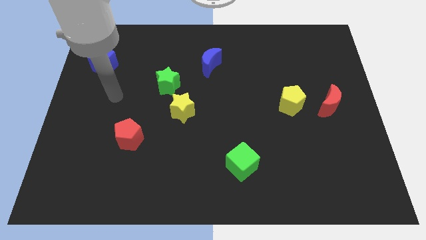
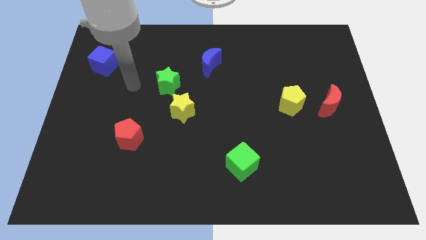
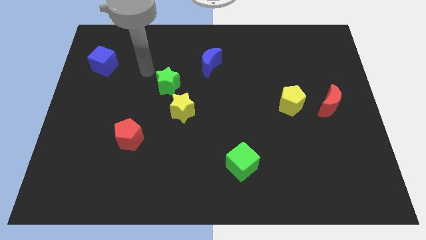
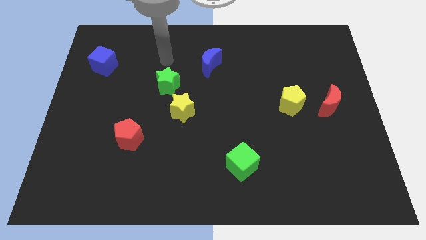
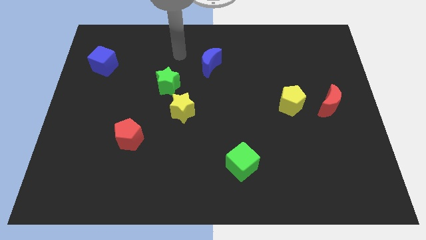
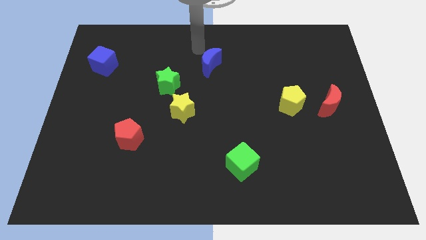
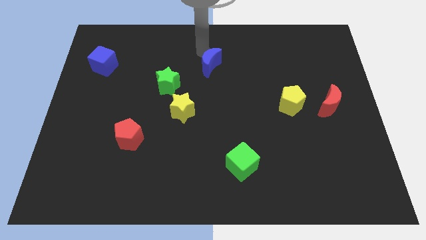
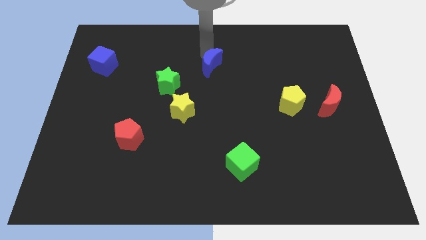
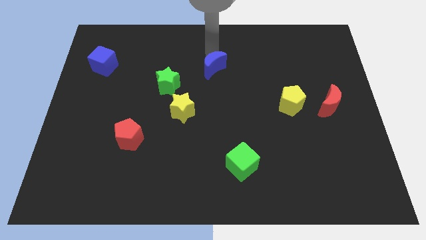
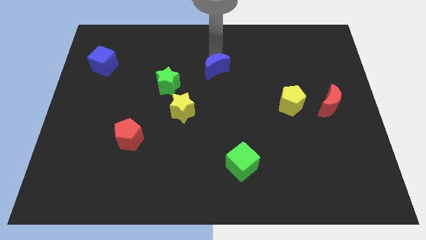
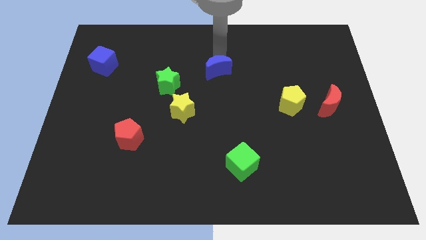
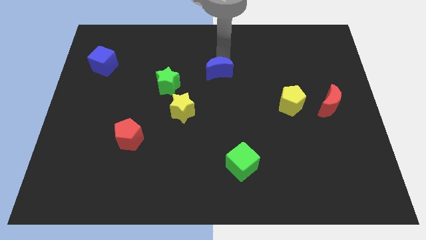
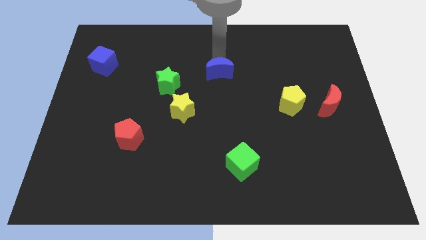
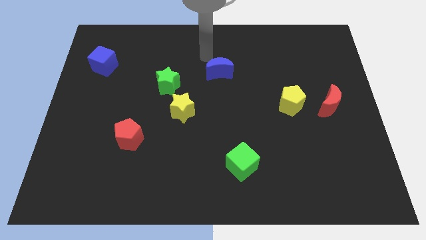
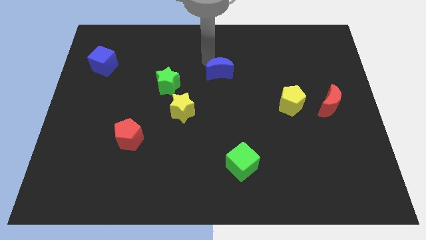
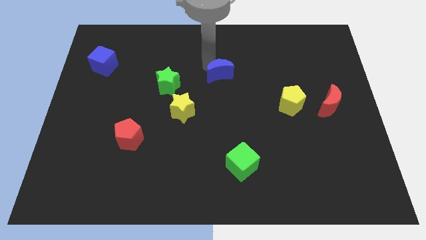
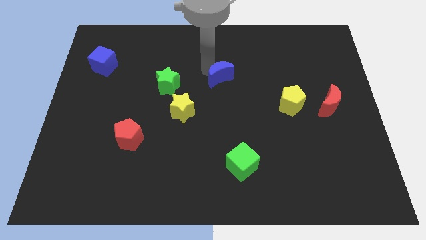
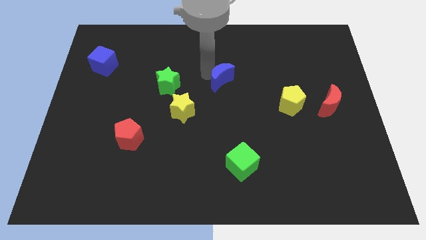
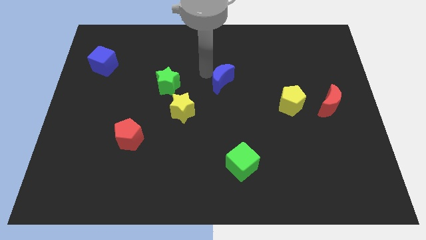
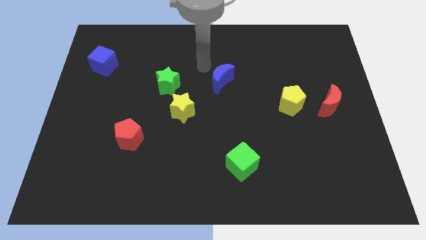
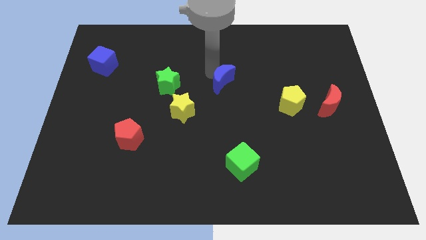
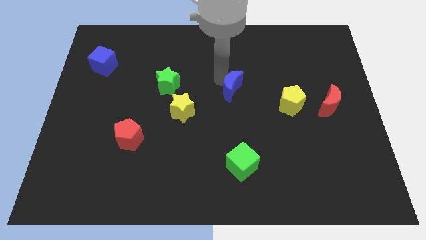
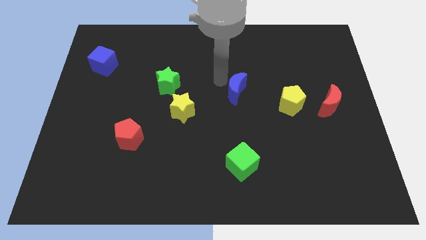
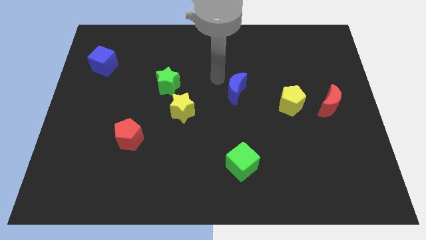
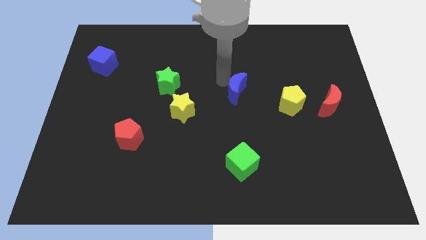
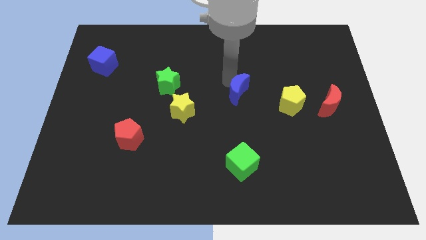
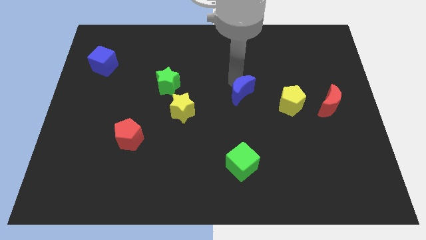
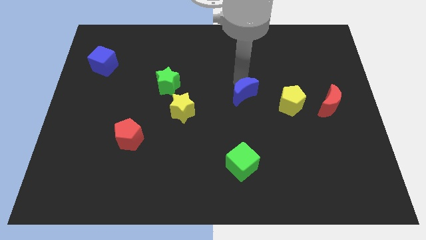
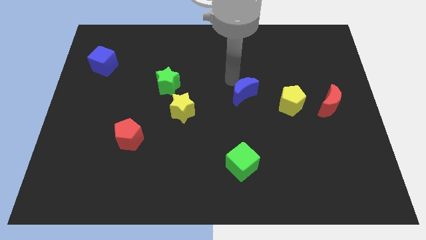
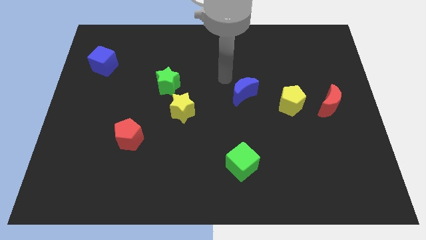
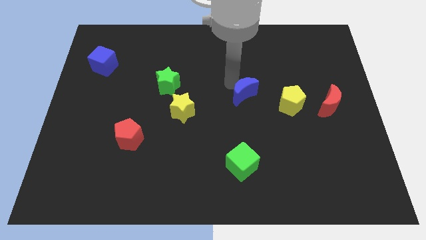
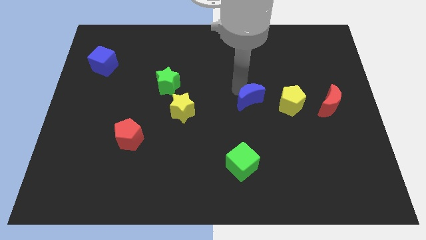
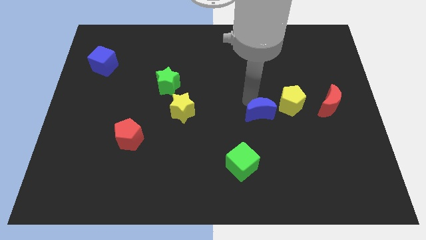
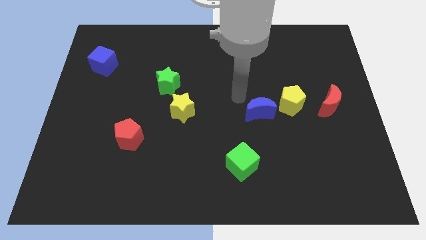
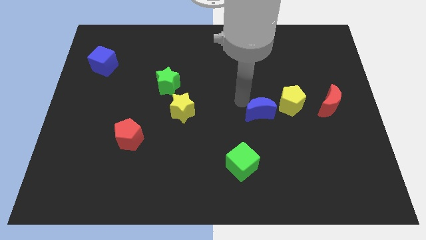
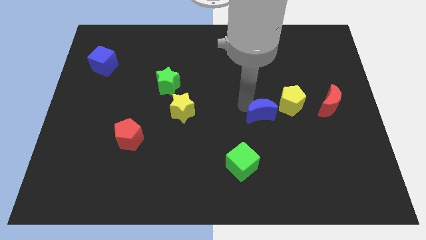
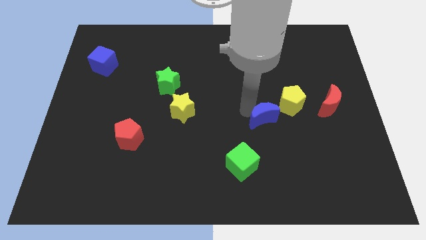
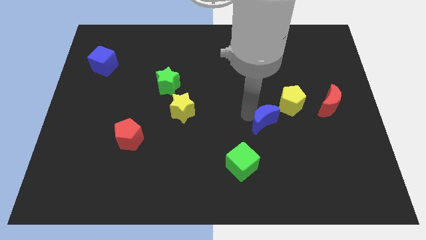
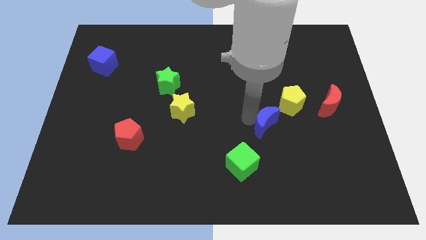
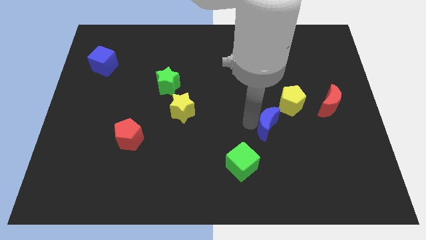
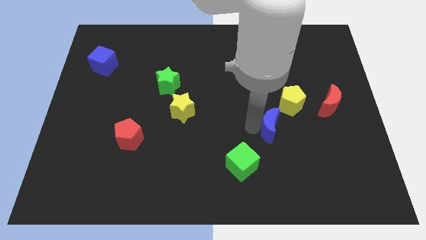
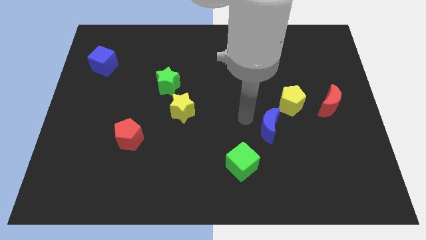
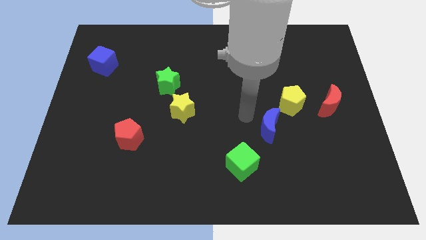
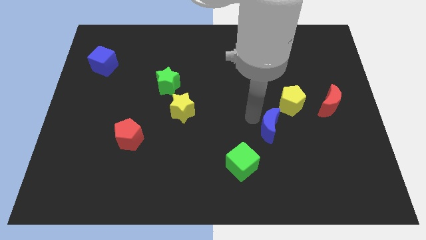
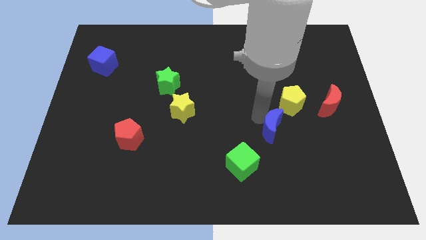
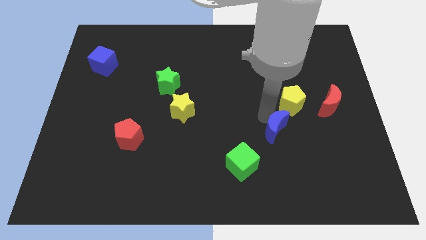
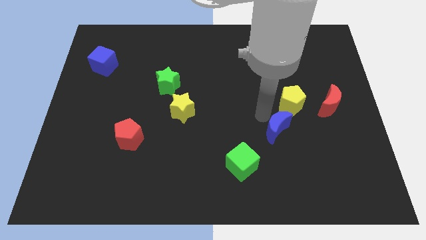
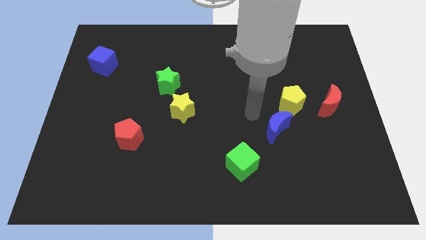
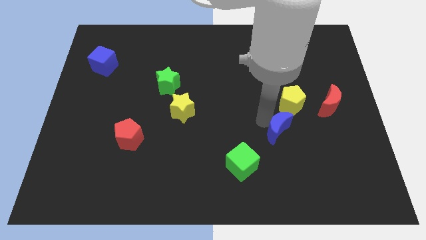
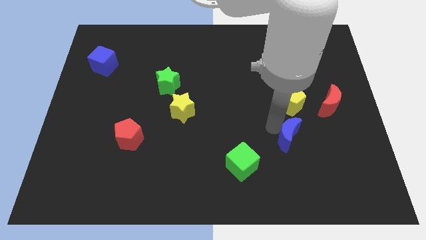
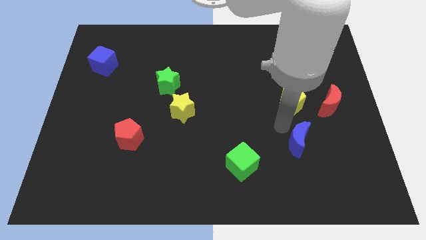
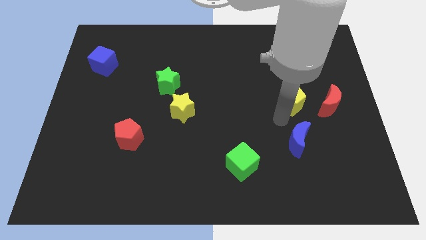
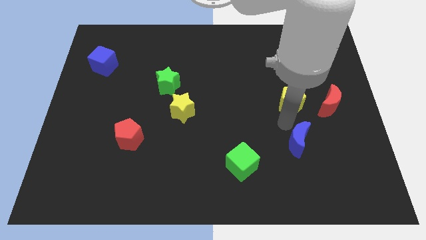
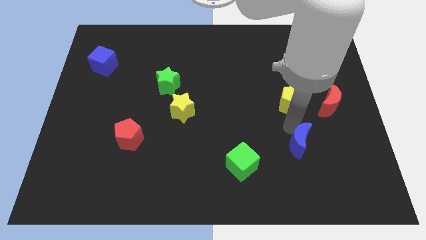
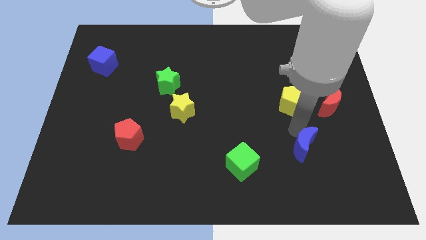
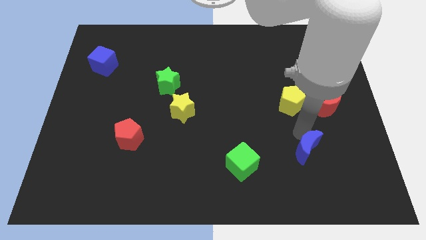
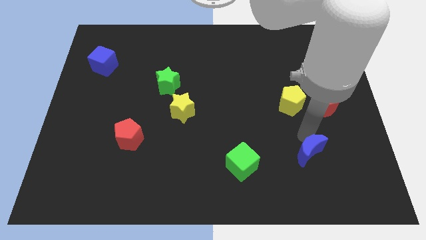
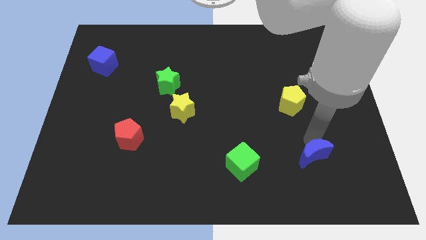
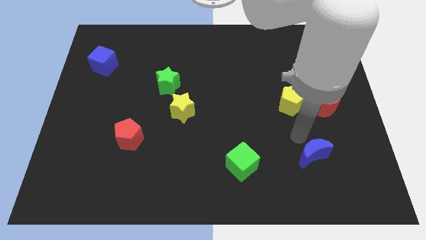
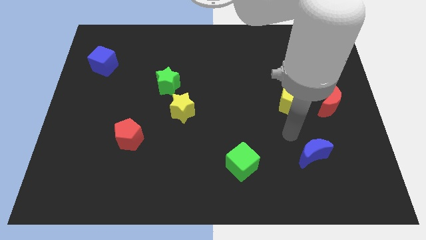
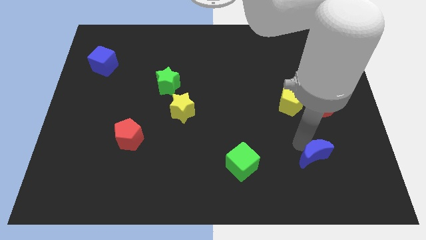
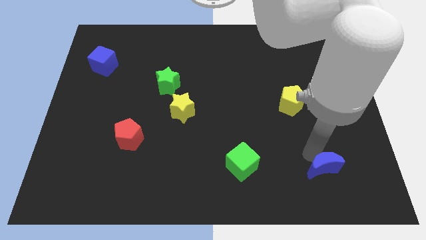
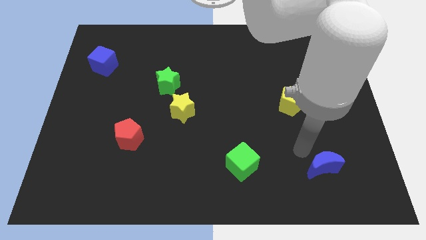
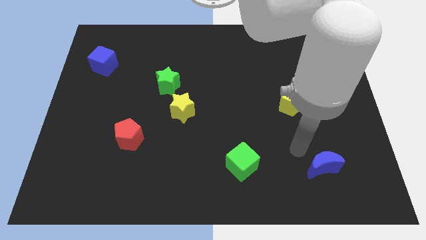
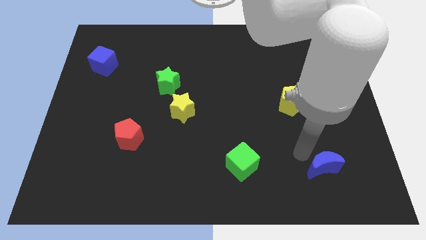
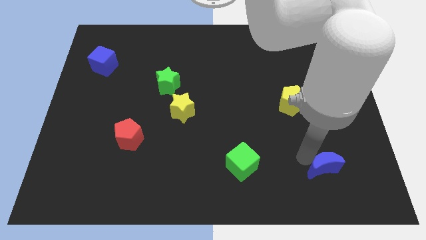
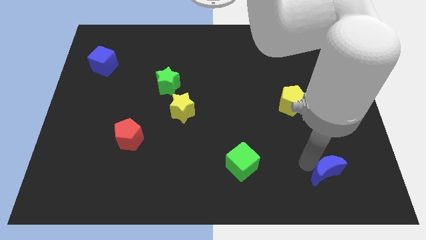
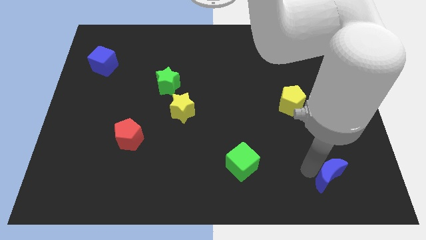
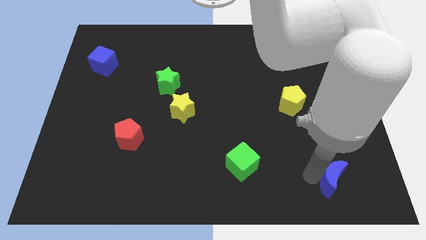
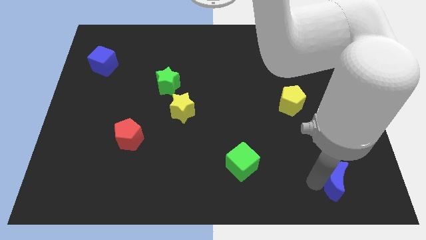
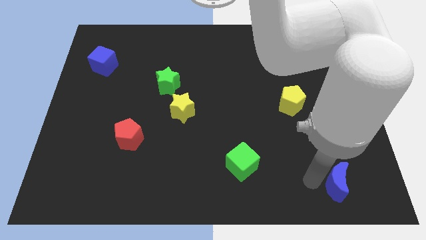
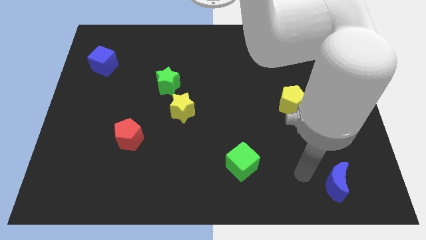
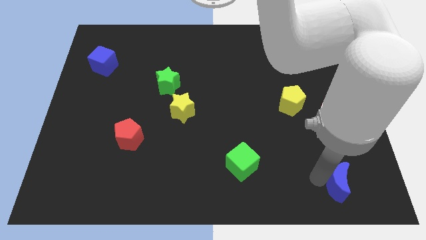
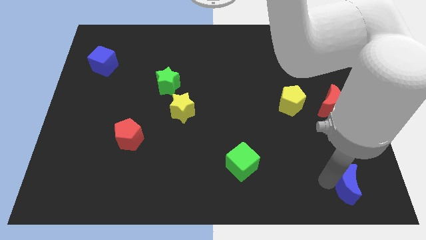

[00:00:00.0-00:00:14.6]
push the blue moon to the bottom right
